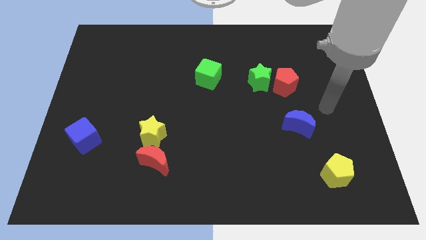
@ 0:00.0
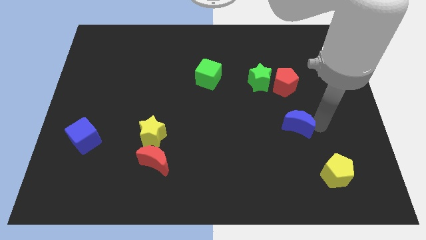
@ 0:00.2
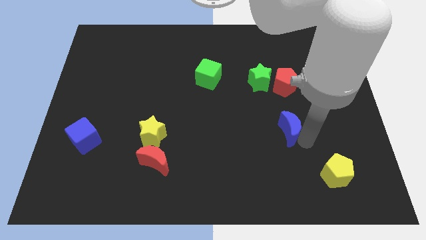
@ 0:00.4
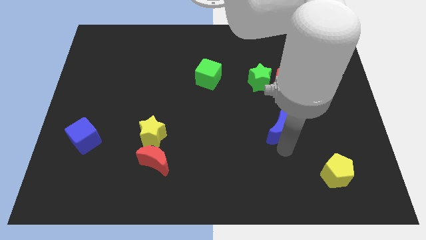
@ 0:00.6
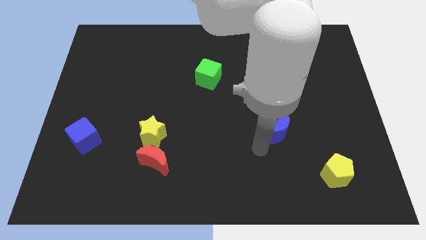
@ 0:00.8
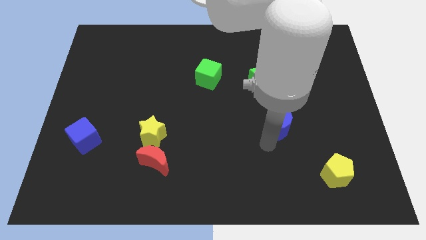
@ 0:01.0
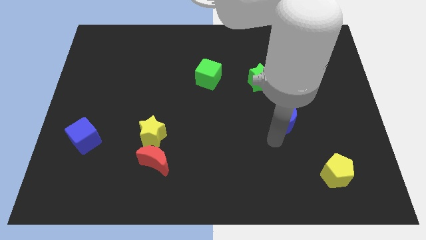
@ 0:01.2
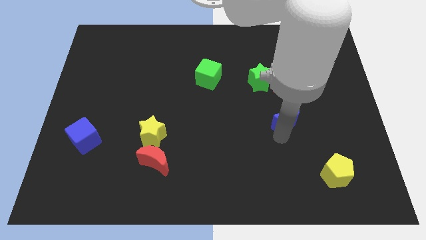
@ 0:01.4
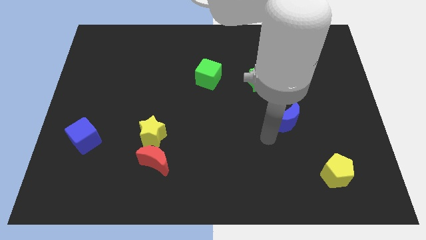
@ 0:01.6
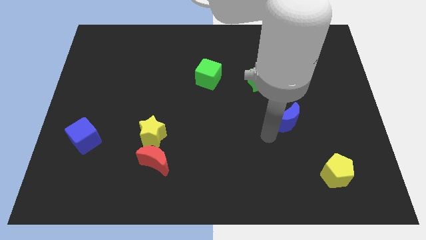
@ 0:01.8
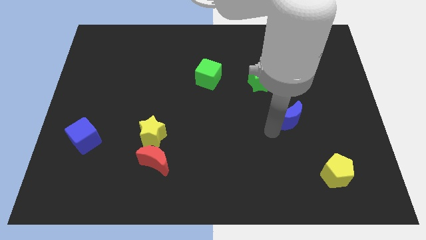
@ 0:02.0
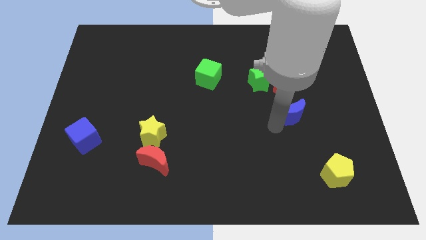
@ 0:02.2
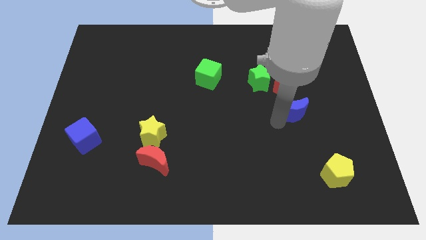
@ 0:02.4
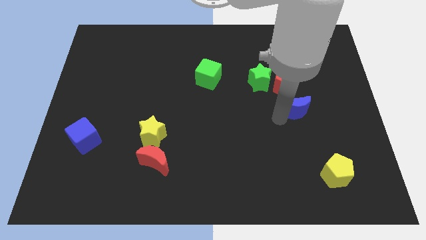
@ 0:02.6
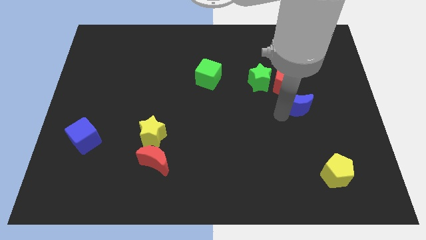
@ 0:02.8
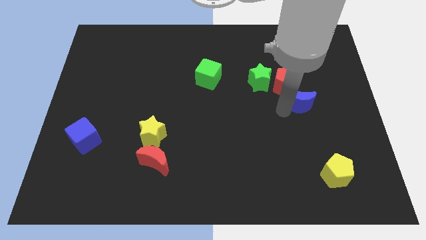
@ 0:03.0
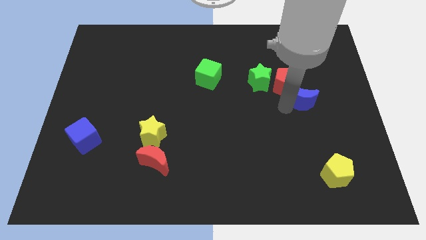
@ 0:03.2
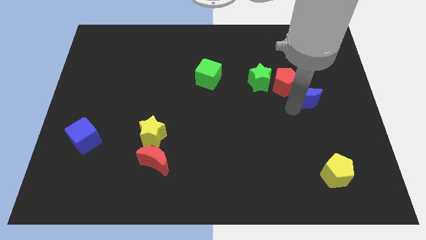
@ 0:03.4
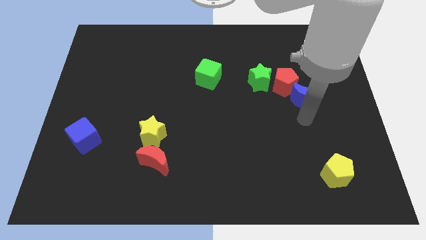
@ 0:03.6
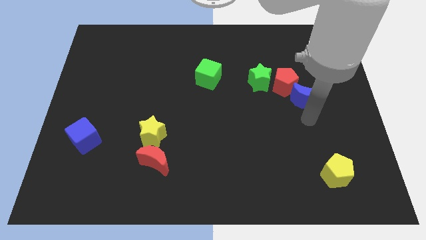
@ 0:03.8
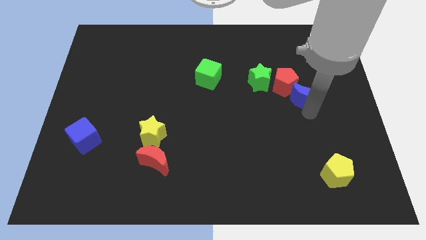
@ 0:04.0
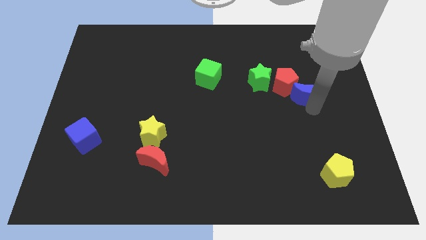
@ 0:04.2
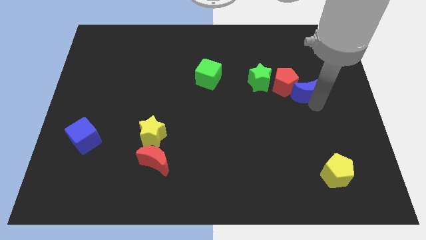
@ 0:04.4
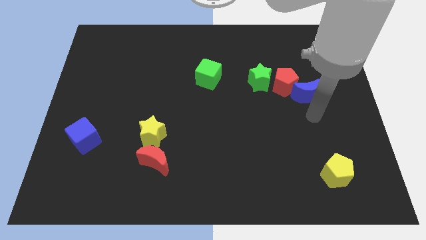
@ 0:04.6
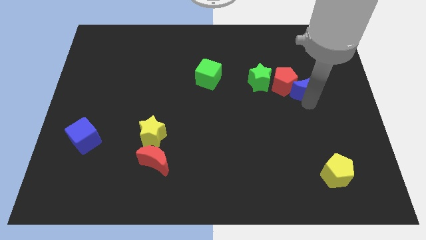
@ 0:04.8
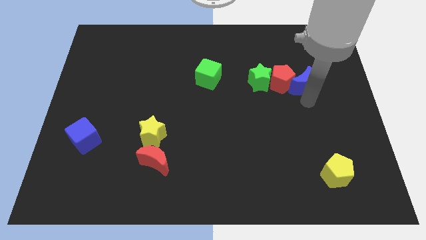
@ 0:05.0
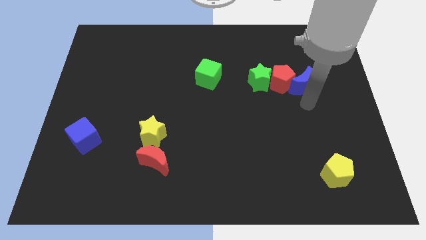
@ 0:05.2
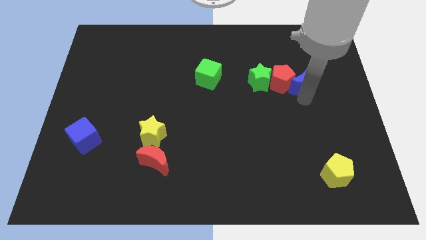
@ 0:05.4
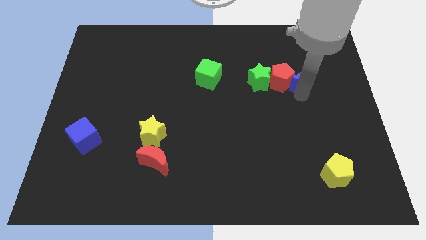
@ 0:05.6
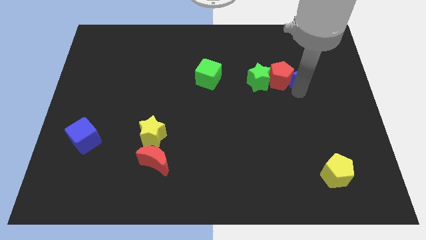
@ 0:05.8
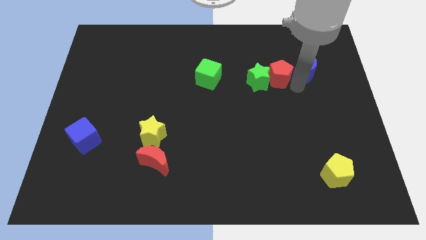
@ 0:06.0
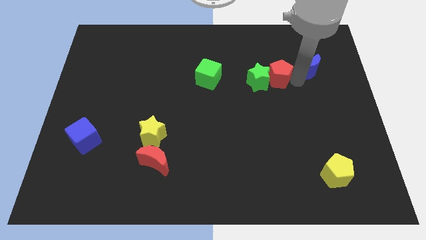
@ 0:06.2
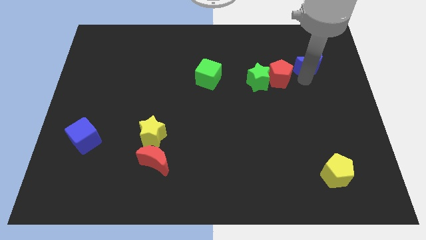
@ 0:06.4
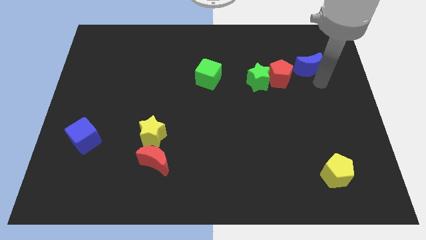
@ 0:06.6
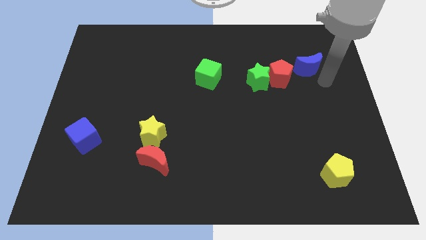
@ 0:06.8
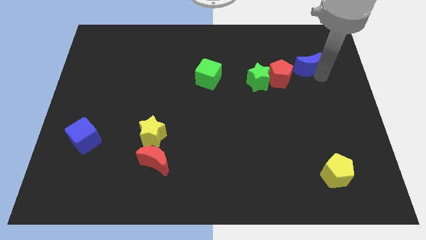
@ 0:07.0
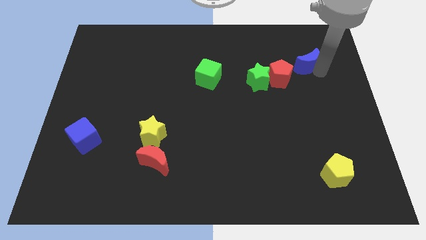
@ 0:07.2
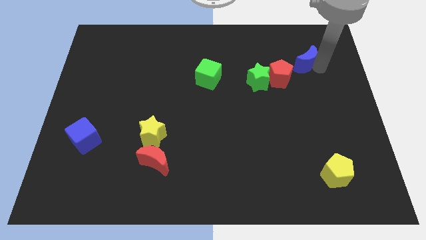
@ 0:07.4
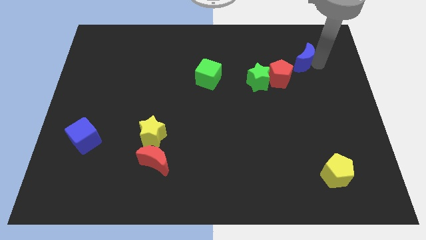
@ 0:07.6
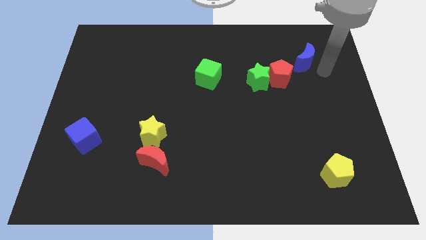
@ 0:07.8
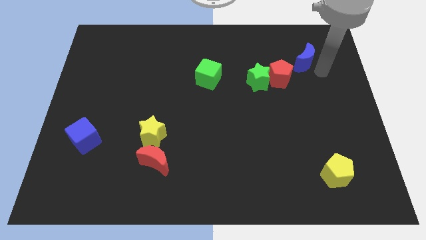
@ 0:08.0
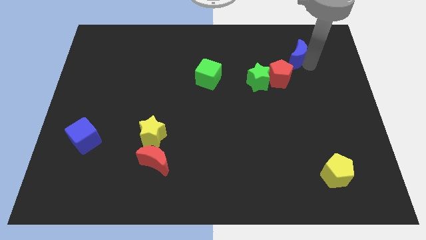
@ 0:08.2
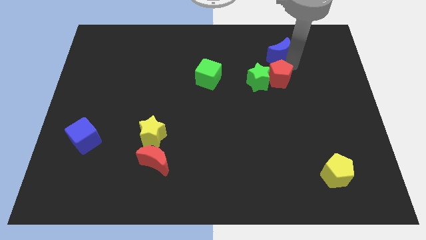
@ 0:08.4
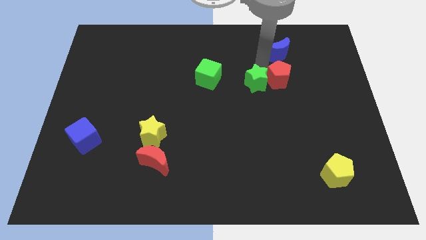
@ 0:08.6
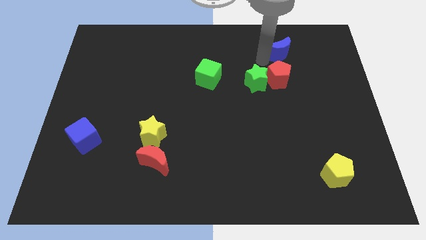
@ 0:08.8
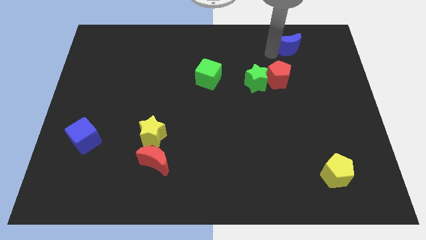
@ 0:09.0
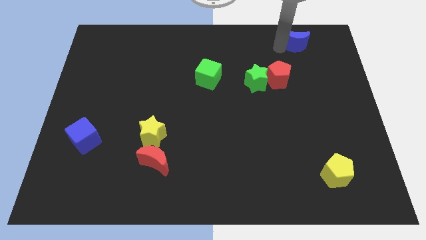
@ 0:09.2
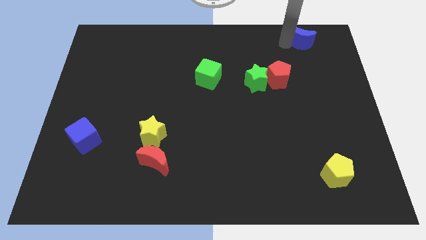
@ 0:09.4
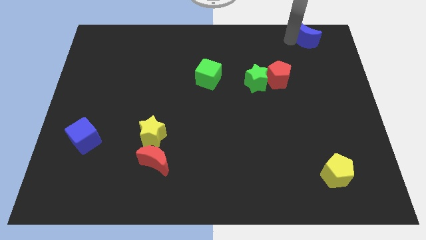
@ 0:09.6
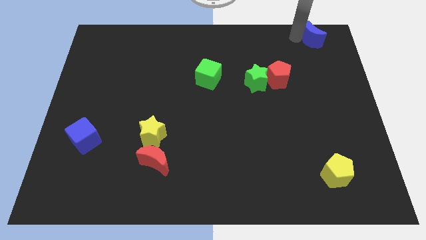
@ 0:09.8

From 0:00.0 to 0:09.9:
move the blue moon to the upper right corner

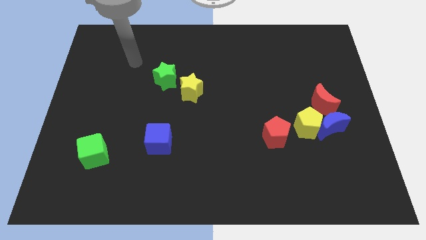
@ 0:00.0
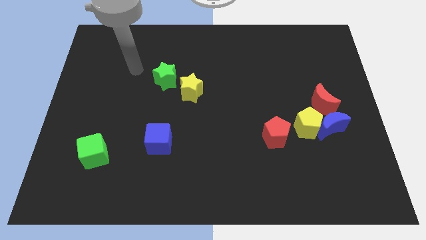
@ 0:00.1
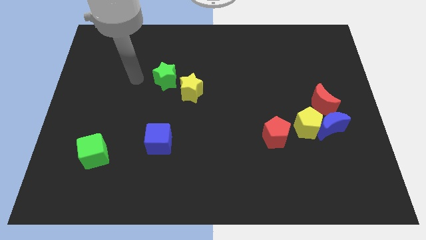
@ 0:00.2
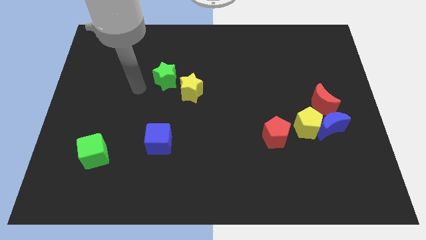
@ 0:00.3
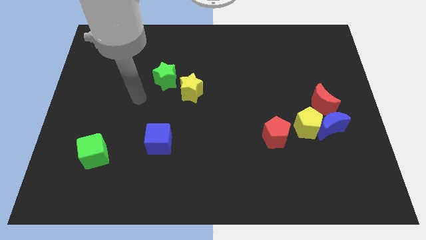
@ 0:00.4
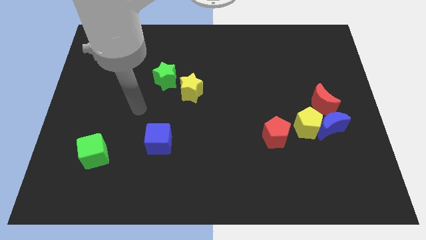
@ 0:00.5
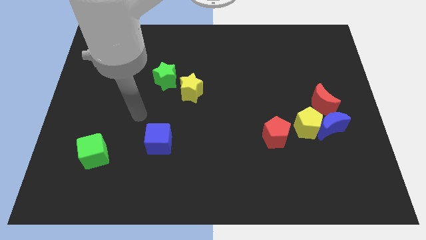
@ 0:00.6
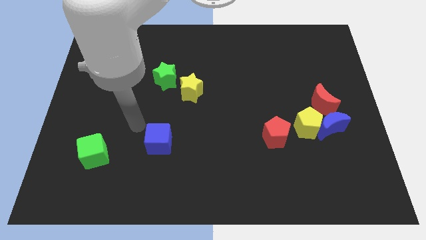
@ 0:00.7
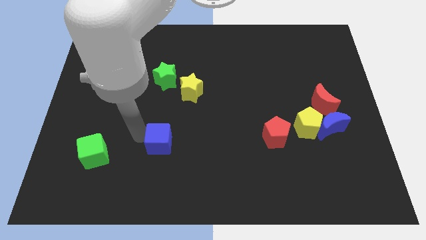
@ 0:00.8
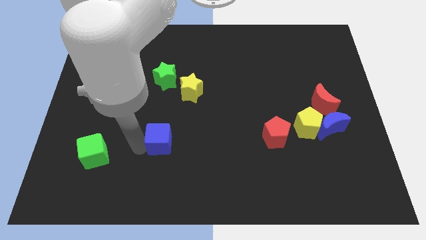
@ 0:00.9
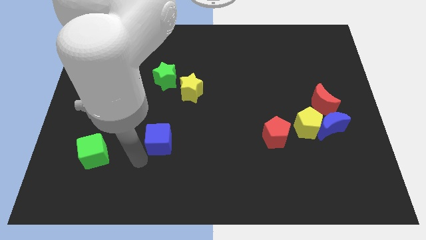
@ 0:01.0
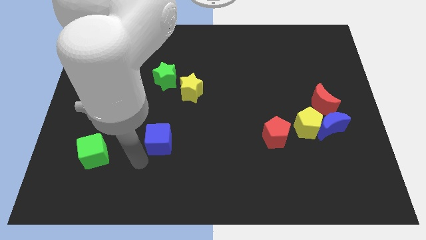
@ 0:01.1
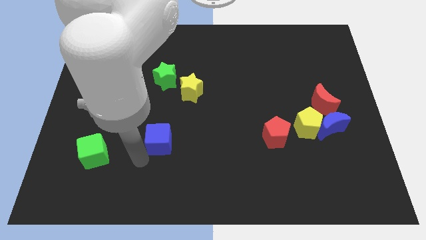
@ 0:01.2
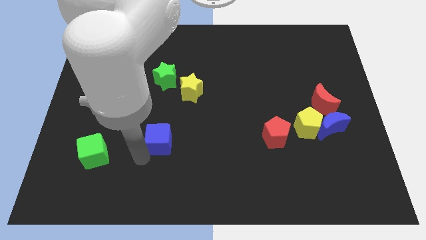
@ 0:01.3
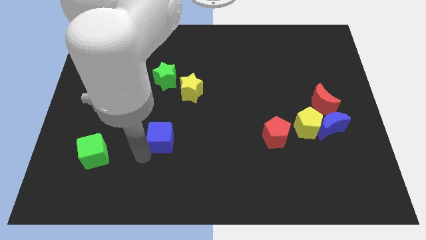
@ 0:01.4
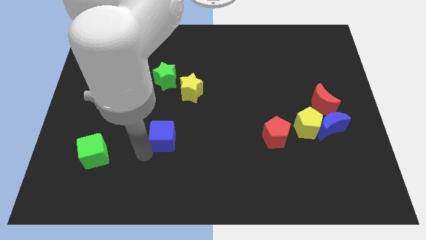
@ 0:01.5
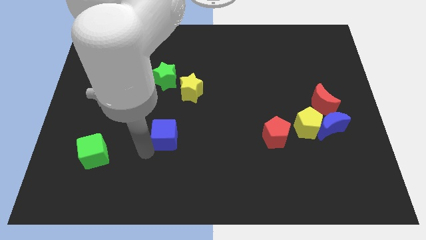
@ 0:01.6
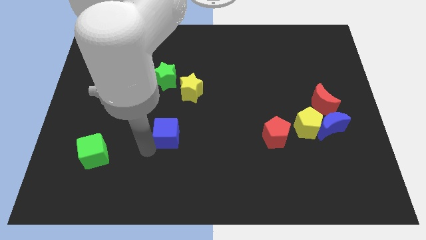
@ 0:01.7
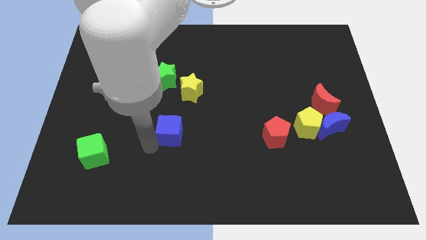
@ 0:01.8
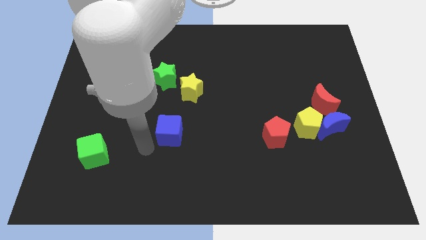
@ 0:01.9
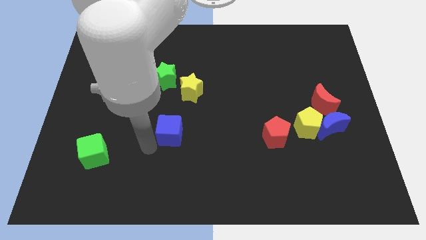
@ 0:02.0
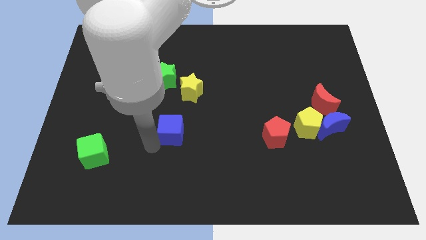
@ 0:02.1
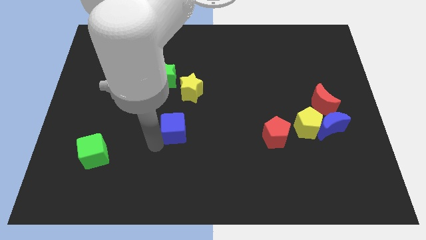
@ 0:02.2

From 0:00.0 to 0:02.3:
push the blue cube to the center

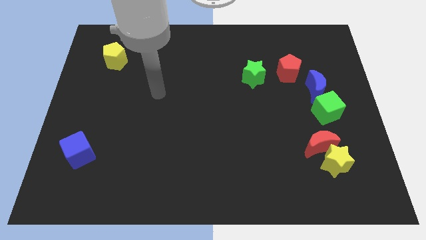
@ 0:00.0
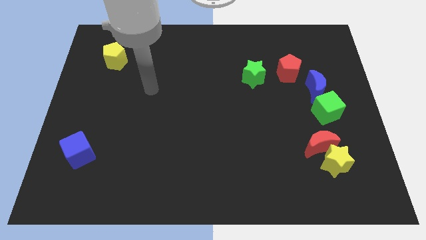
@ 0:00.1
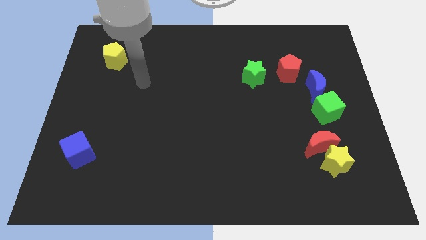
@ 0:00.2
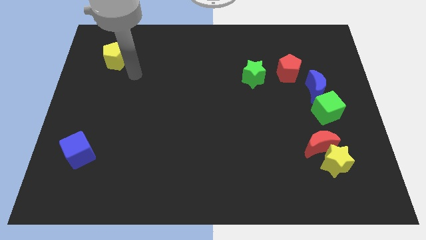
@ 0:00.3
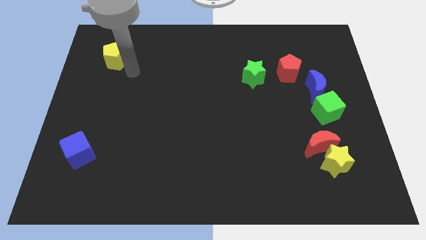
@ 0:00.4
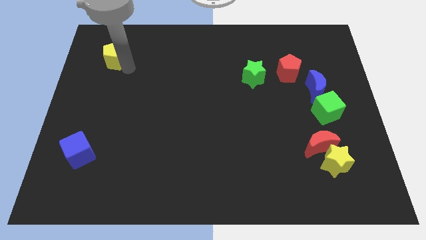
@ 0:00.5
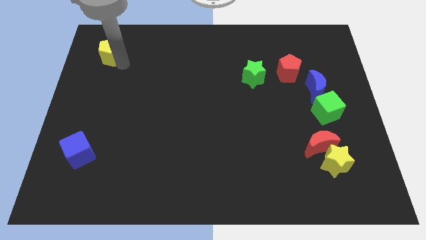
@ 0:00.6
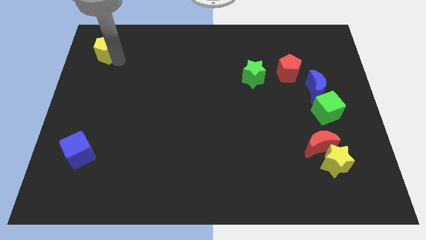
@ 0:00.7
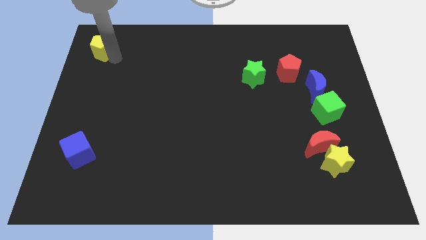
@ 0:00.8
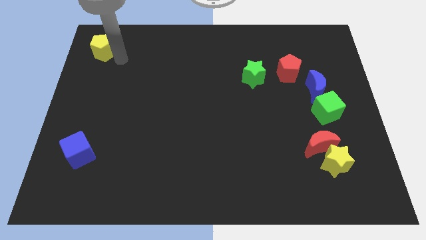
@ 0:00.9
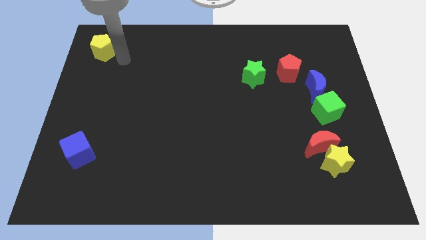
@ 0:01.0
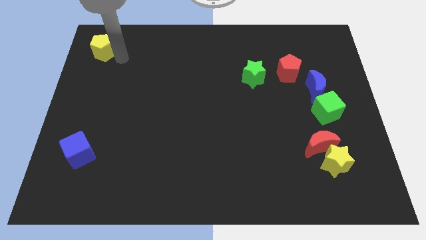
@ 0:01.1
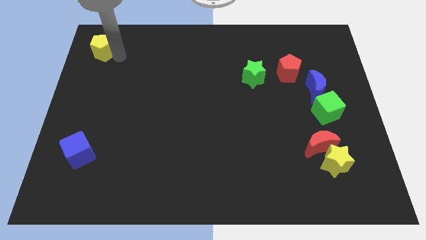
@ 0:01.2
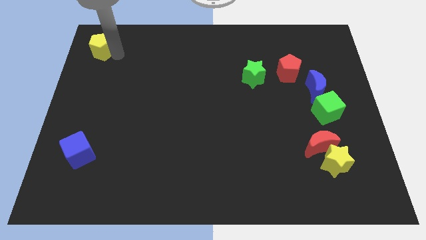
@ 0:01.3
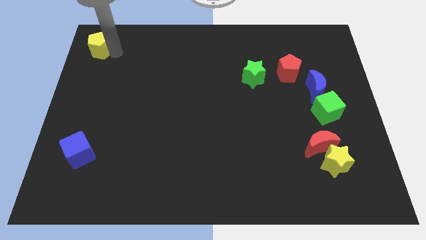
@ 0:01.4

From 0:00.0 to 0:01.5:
put the yellow pentagon to the top left of the board
